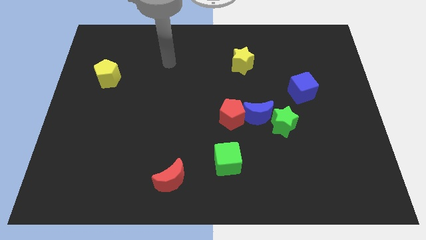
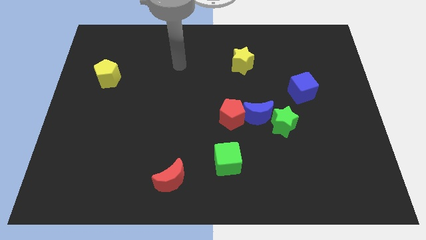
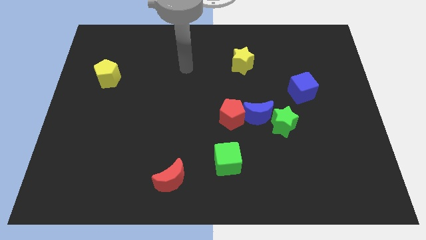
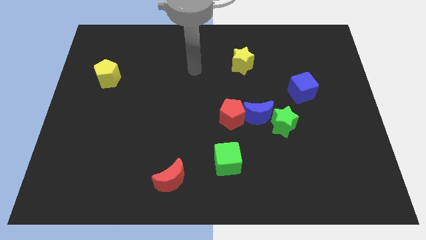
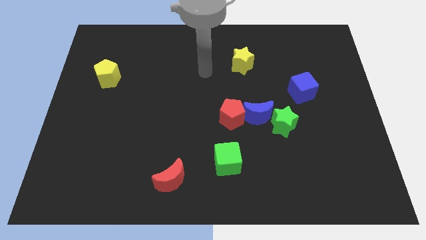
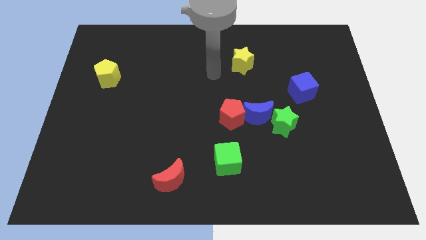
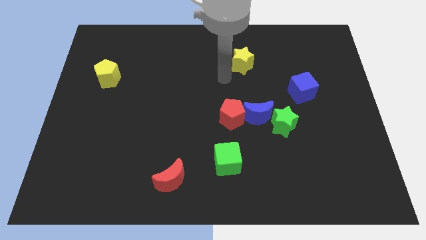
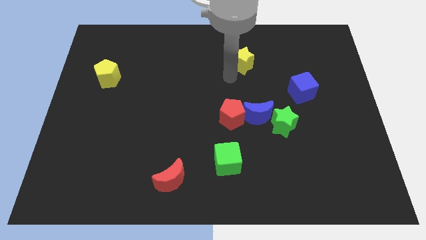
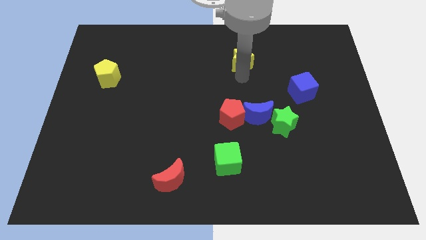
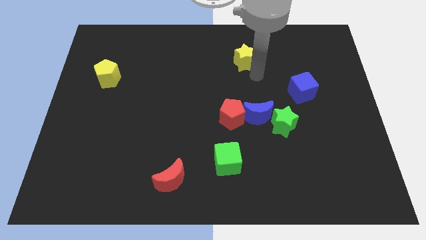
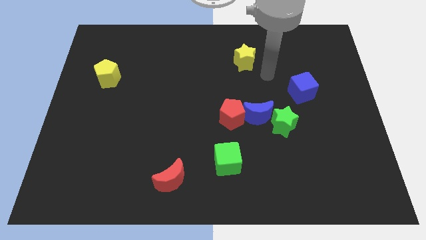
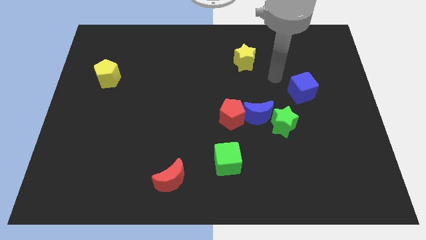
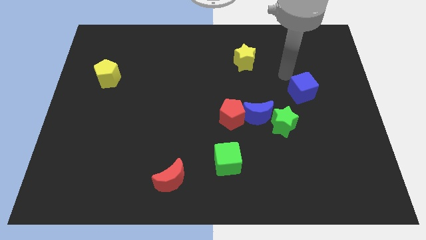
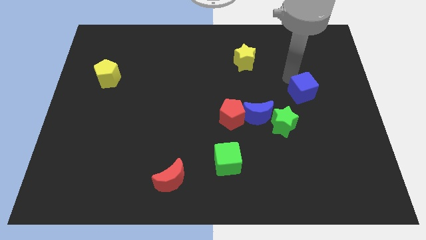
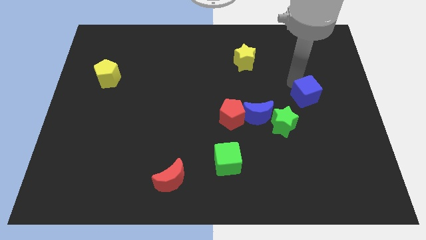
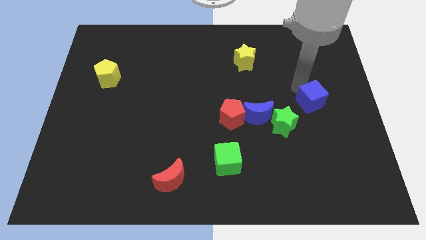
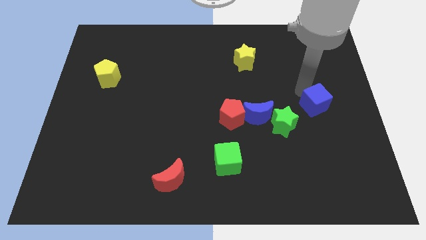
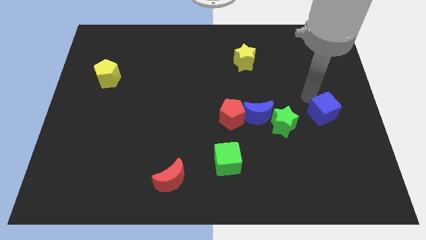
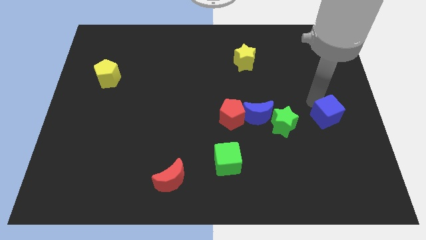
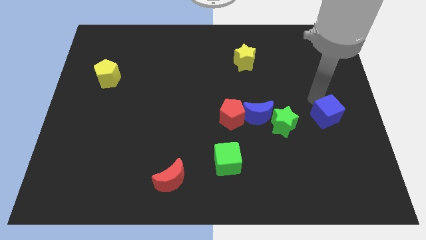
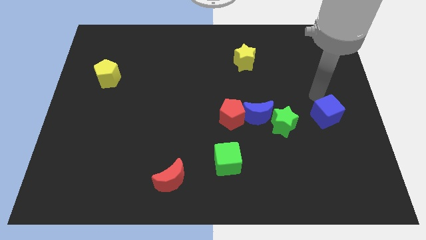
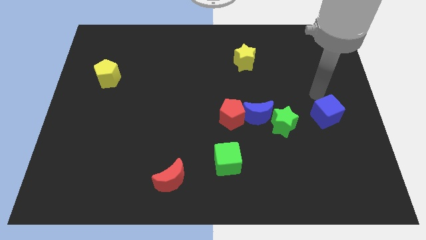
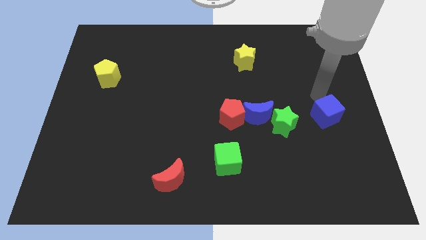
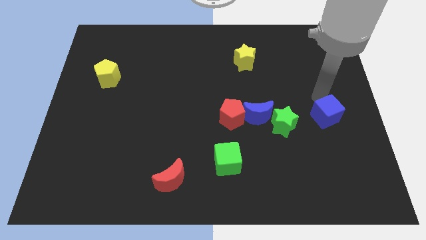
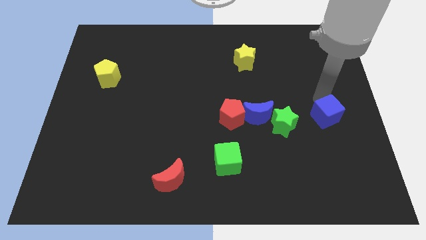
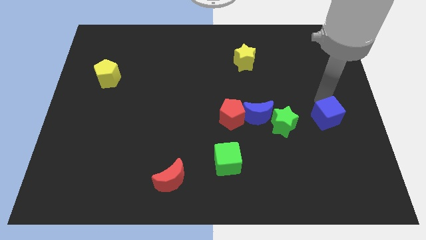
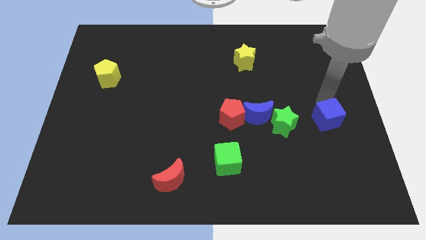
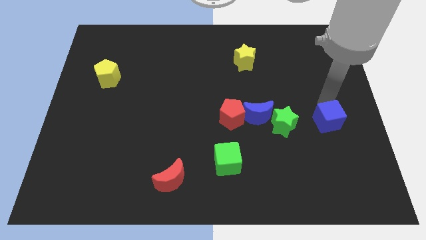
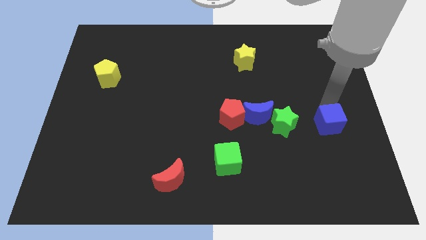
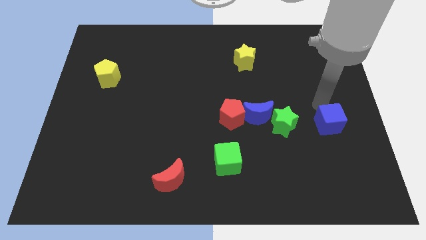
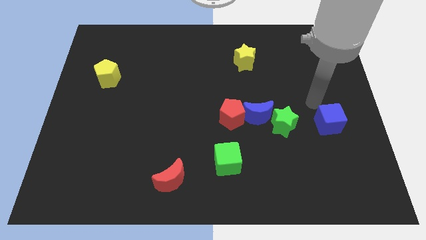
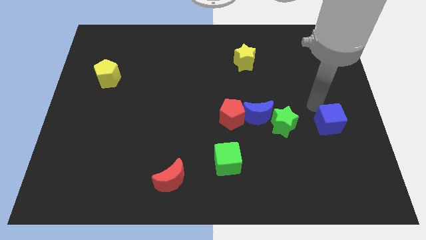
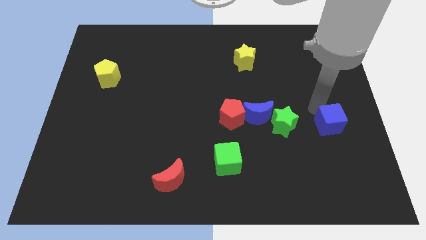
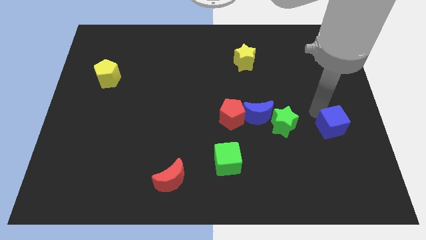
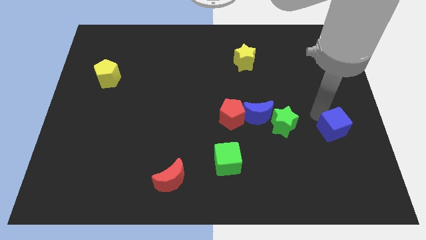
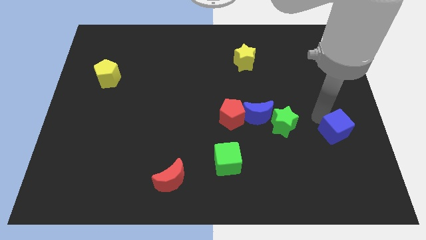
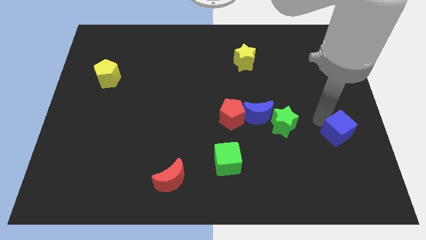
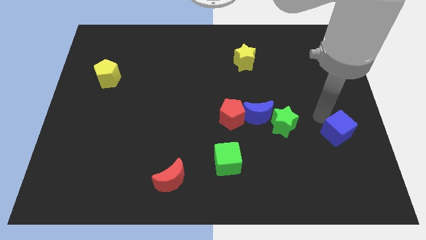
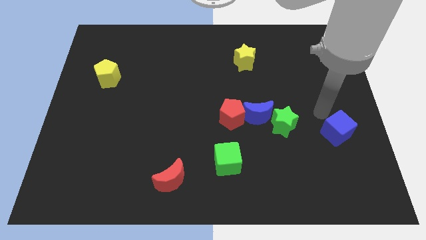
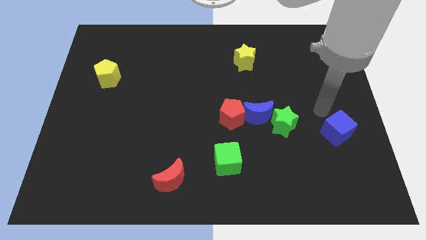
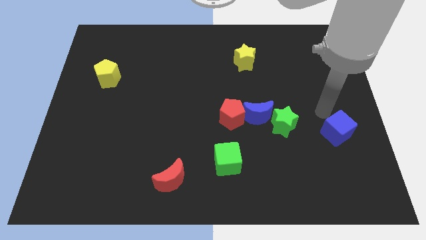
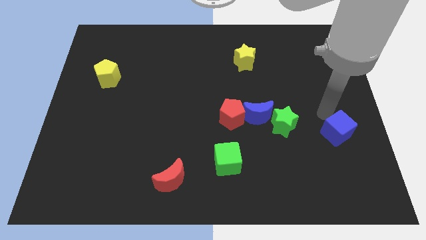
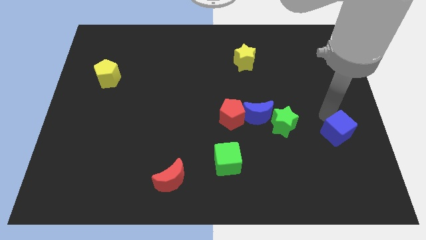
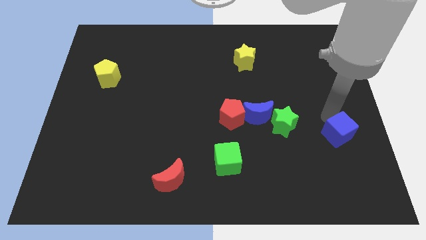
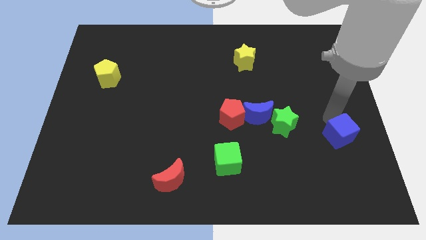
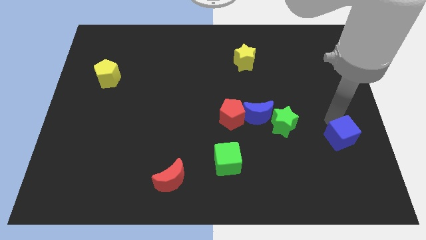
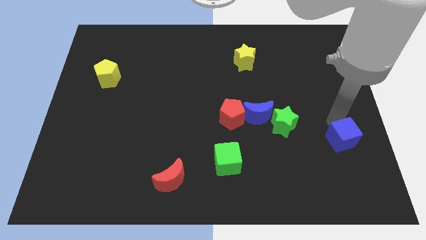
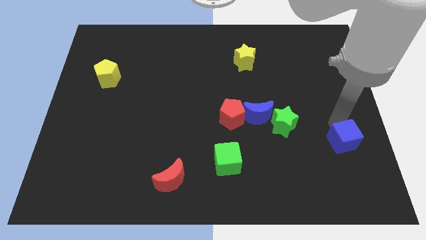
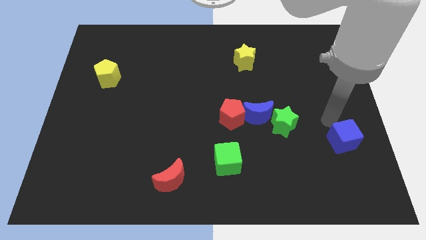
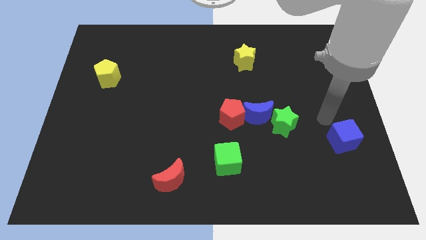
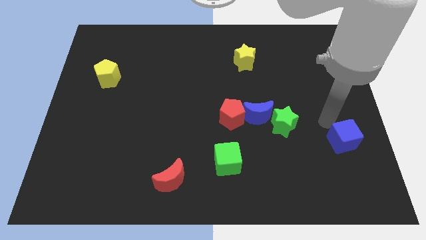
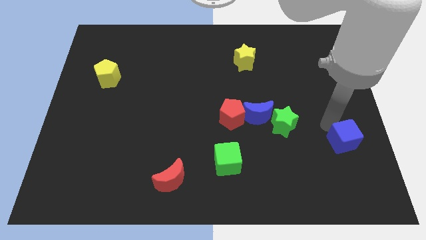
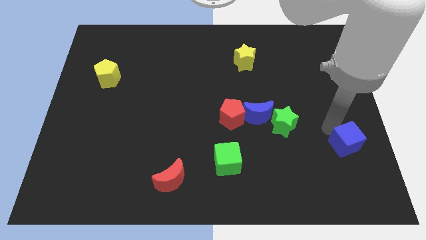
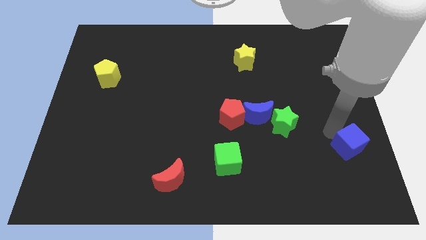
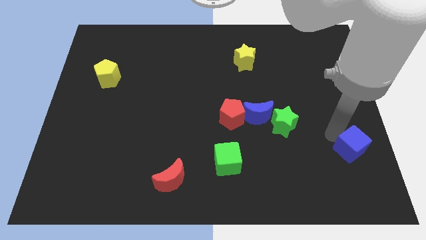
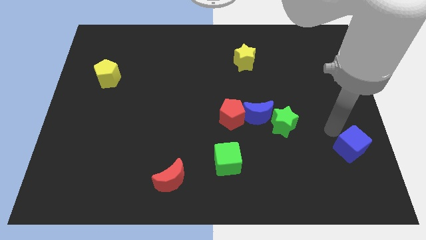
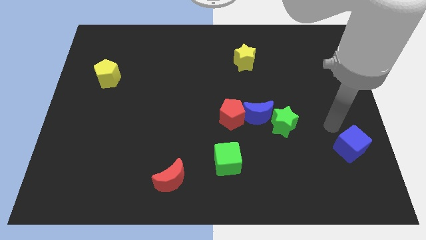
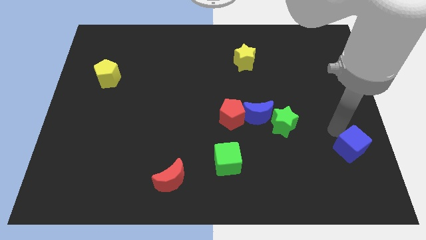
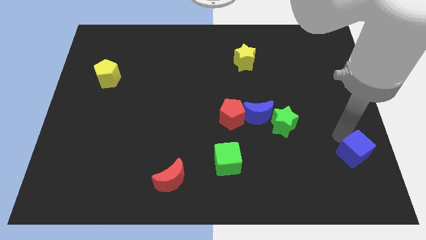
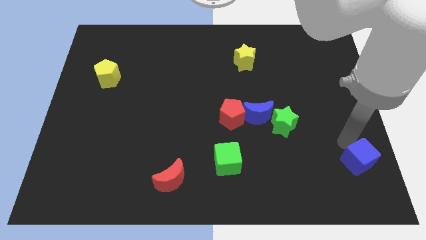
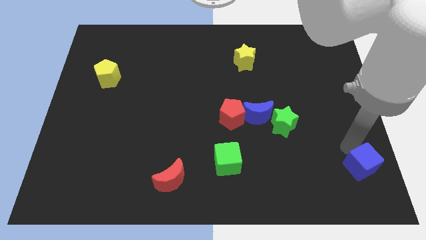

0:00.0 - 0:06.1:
move the blue cube to the bottom right

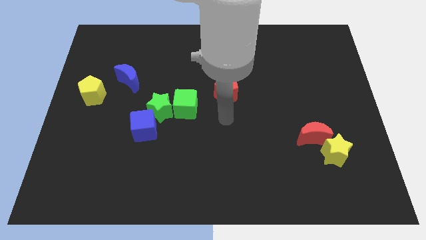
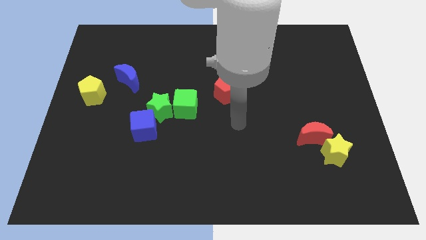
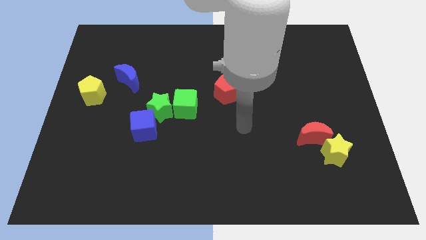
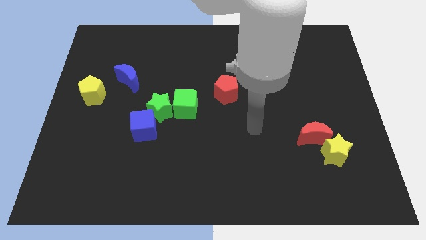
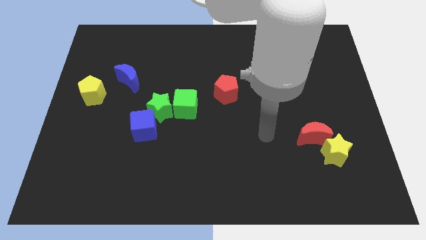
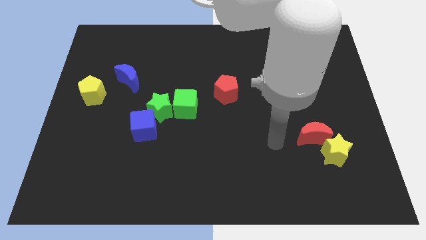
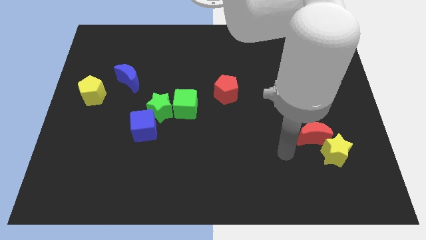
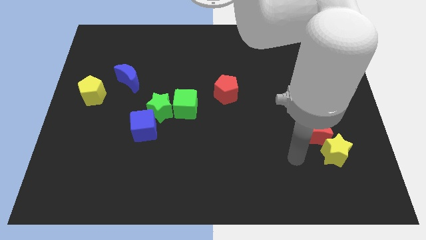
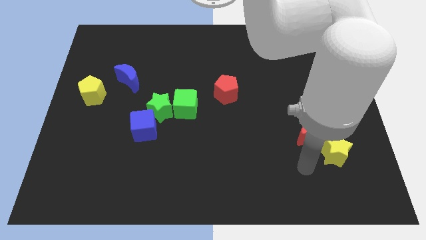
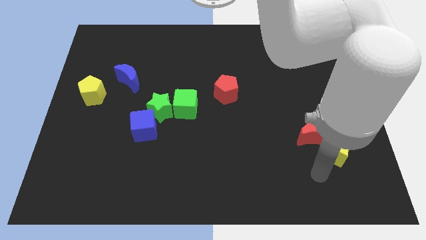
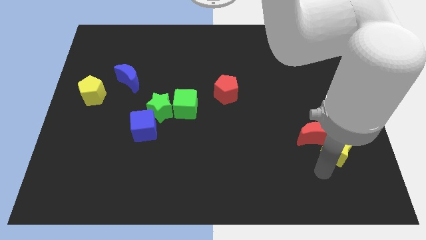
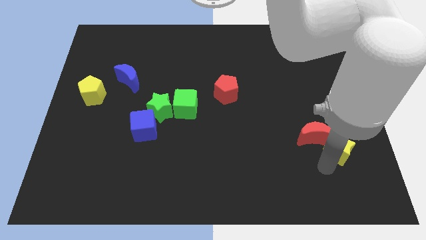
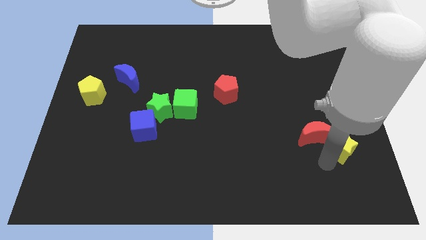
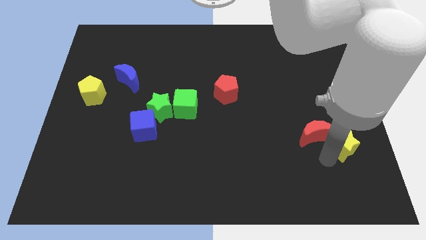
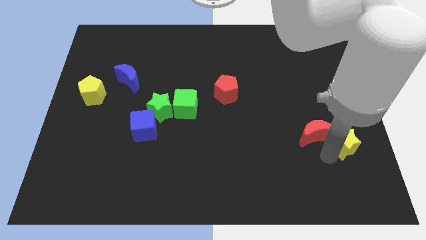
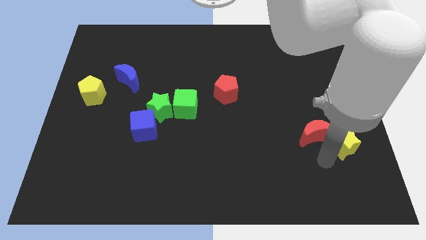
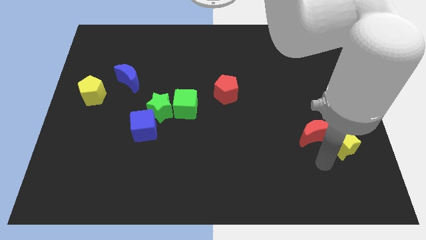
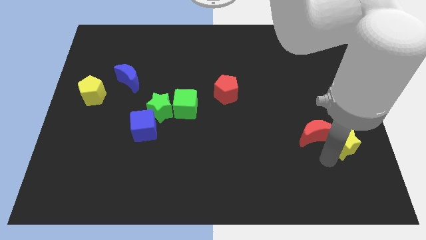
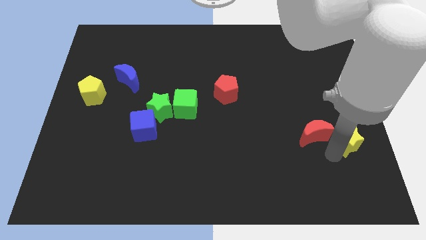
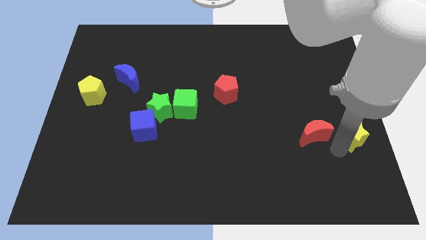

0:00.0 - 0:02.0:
move the yellow star to the center right
